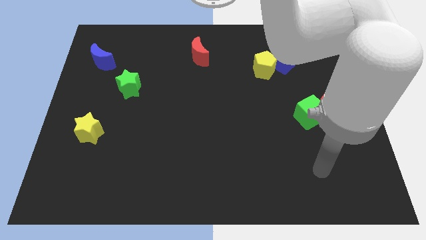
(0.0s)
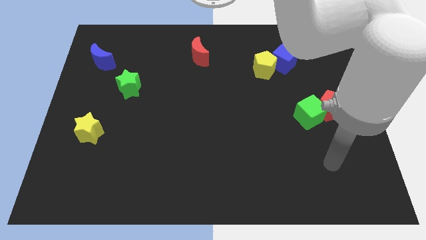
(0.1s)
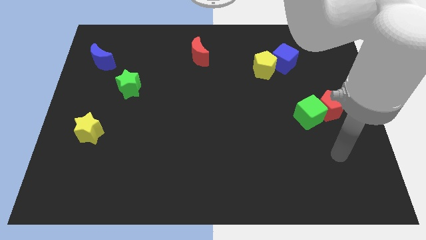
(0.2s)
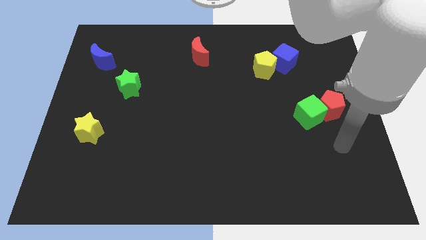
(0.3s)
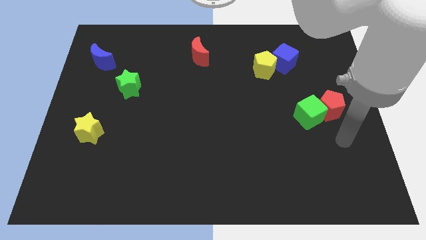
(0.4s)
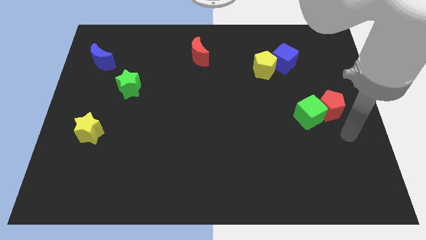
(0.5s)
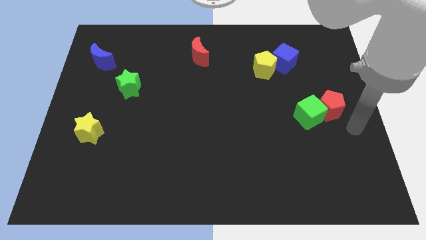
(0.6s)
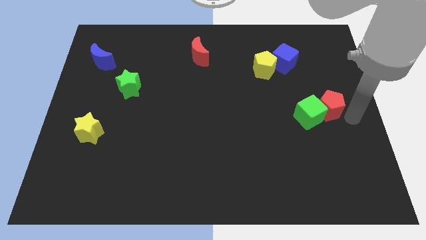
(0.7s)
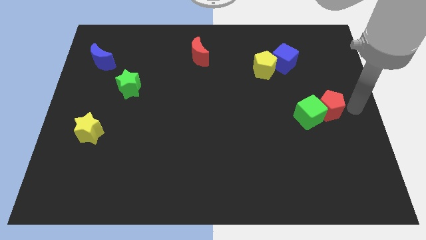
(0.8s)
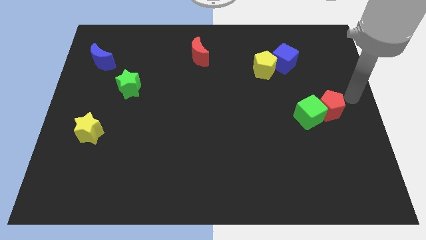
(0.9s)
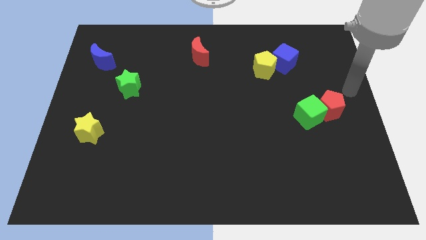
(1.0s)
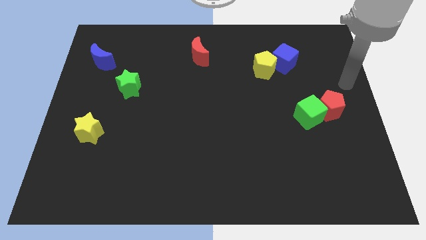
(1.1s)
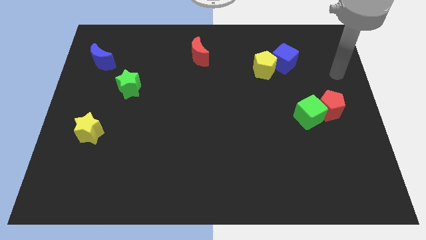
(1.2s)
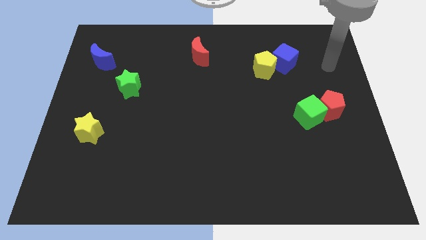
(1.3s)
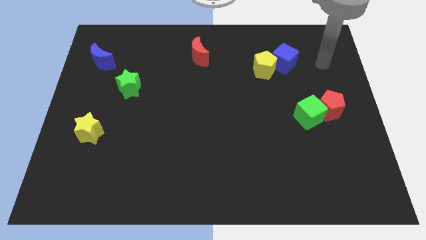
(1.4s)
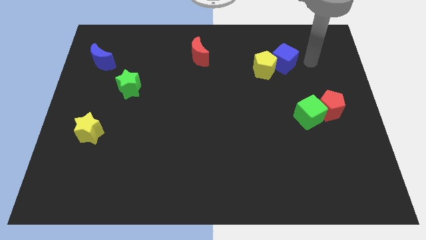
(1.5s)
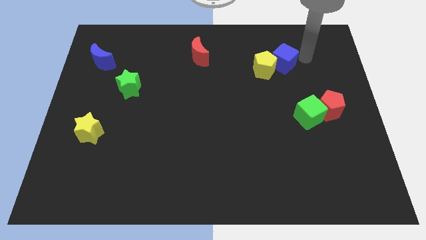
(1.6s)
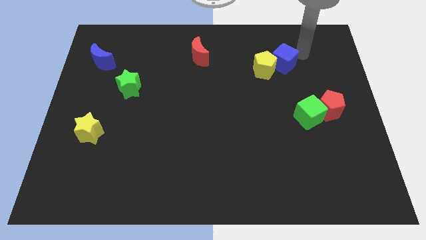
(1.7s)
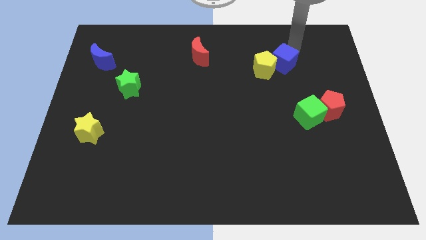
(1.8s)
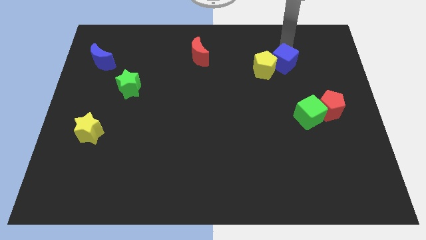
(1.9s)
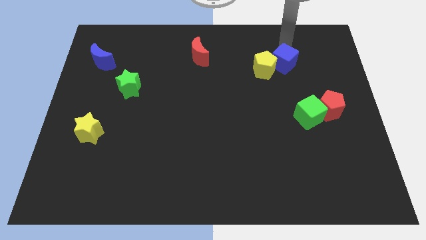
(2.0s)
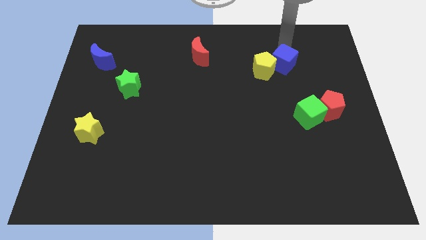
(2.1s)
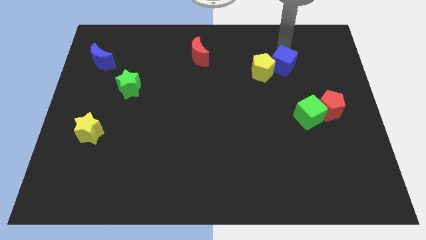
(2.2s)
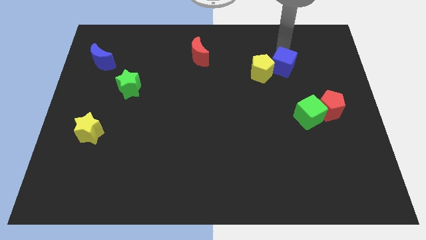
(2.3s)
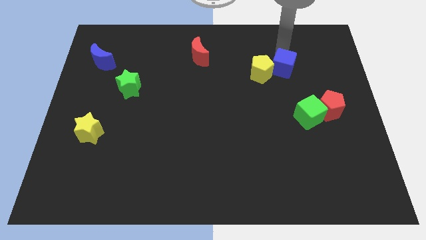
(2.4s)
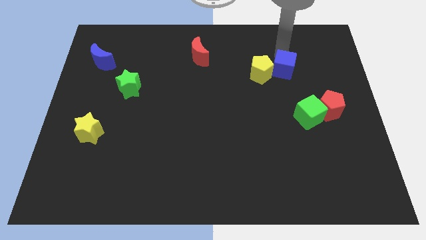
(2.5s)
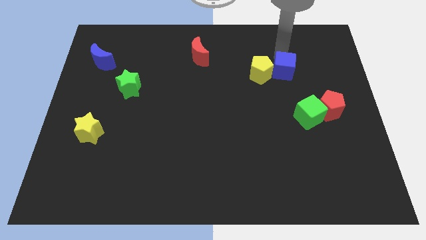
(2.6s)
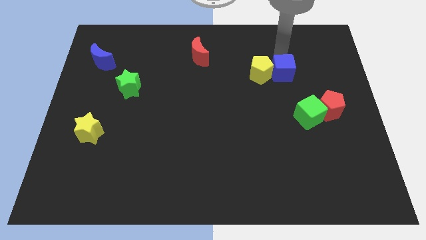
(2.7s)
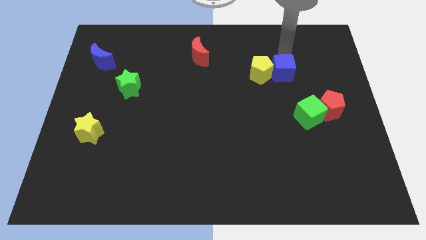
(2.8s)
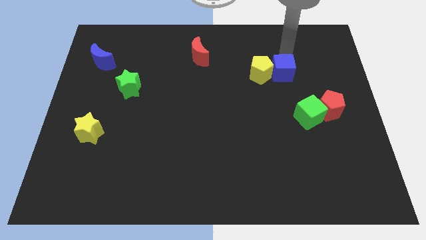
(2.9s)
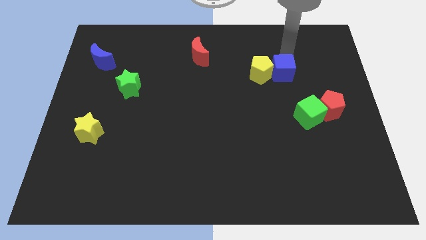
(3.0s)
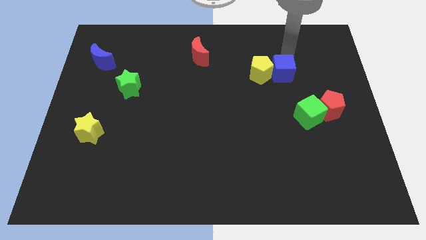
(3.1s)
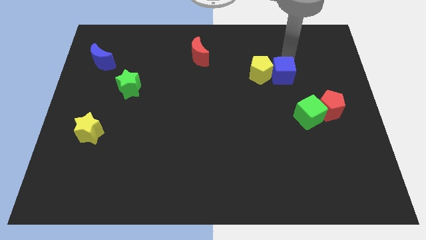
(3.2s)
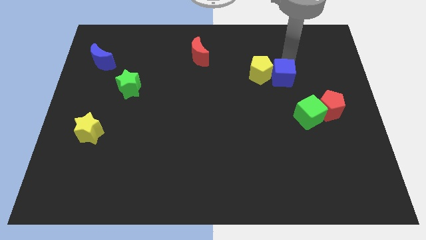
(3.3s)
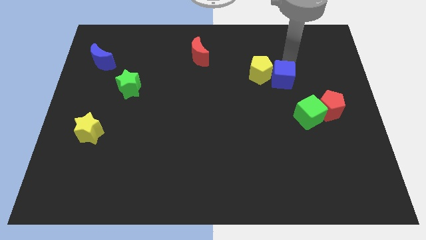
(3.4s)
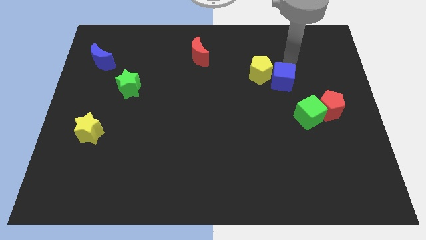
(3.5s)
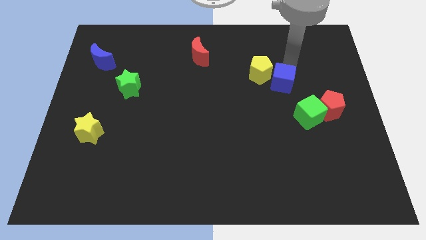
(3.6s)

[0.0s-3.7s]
push the blue cube a little down

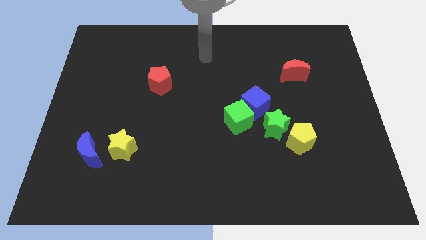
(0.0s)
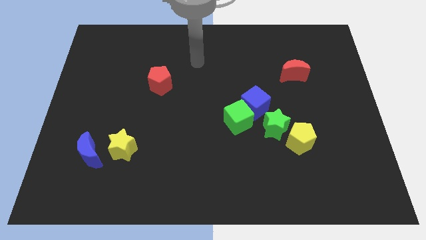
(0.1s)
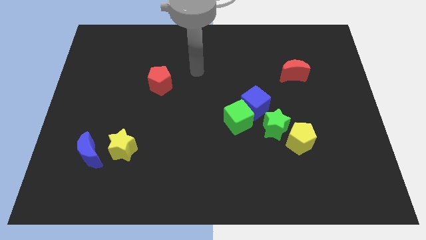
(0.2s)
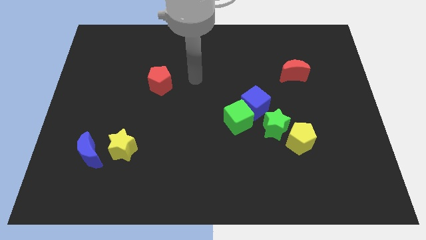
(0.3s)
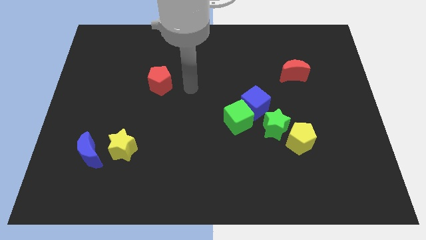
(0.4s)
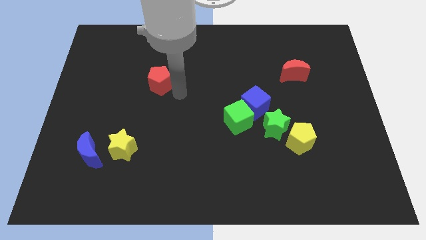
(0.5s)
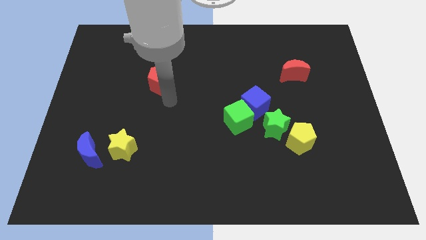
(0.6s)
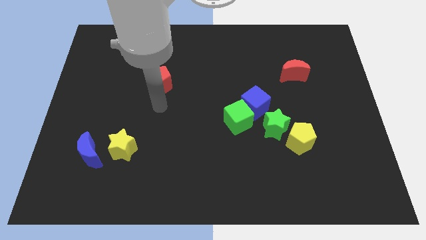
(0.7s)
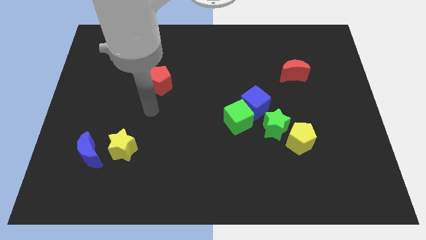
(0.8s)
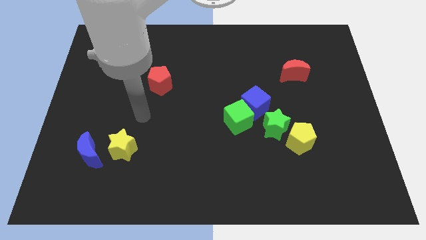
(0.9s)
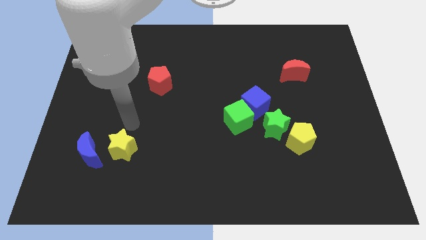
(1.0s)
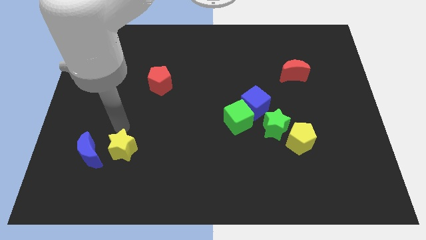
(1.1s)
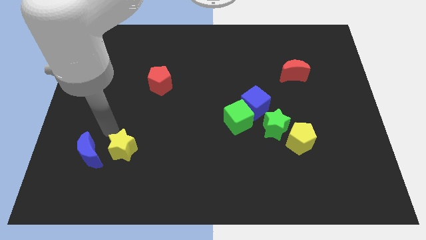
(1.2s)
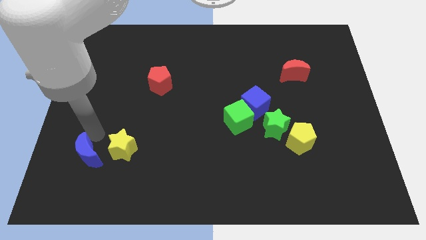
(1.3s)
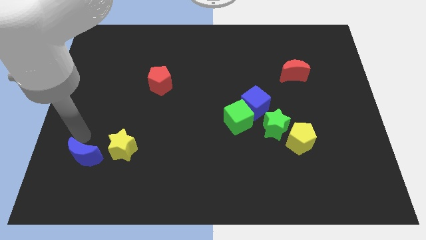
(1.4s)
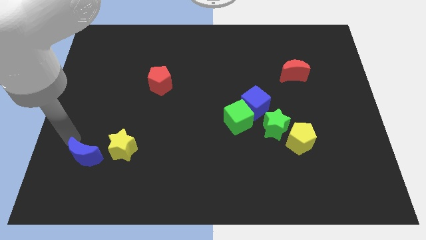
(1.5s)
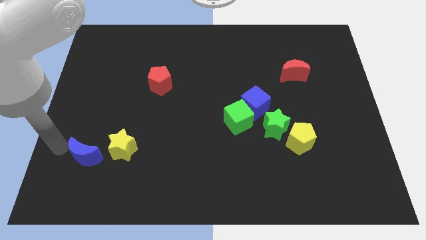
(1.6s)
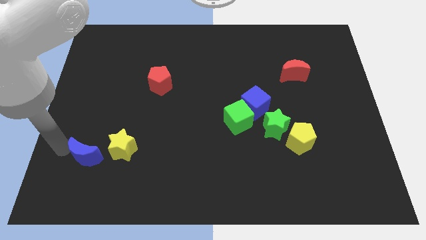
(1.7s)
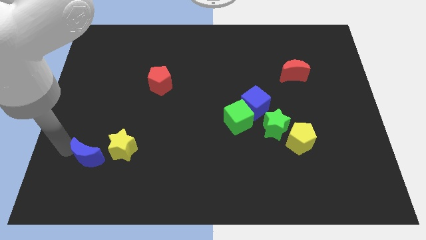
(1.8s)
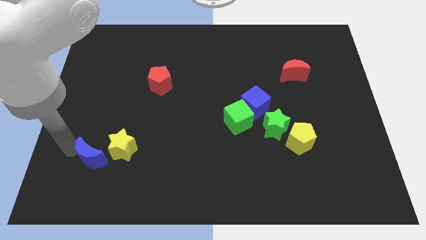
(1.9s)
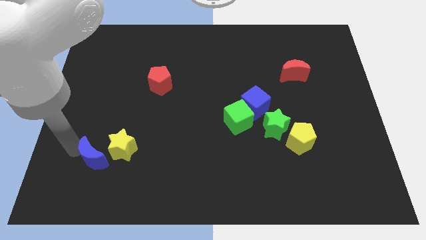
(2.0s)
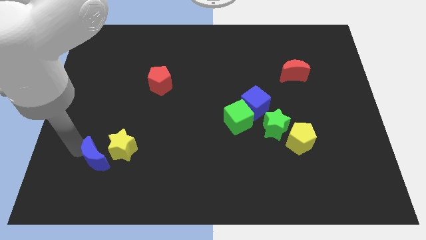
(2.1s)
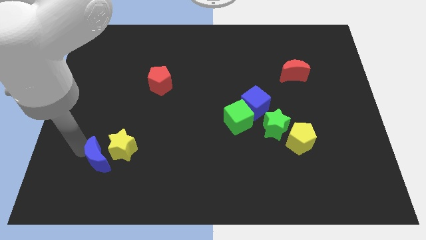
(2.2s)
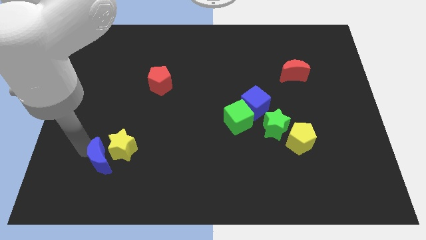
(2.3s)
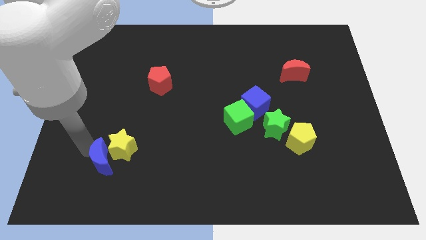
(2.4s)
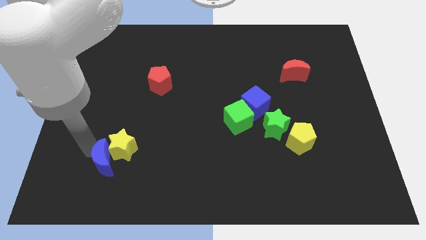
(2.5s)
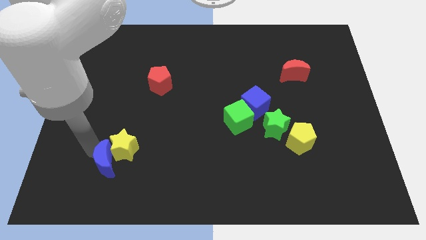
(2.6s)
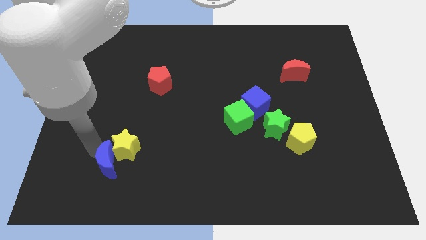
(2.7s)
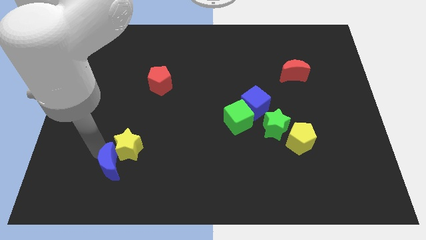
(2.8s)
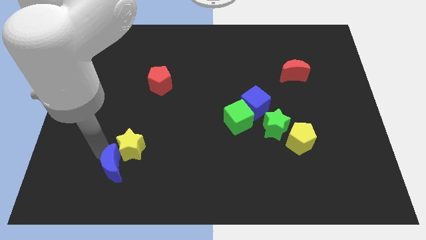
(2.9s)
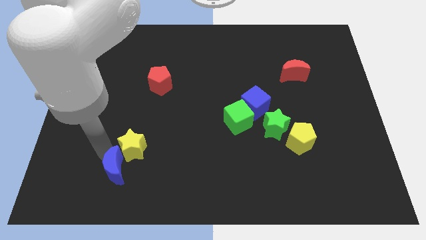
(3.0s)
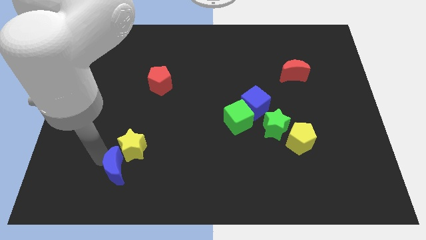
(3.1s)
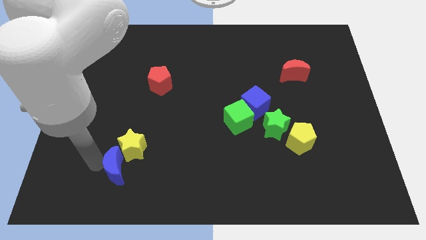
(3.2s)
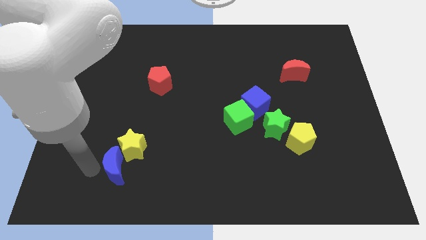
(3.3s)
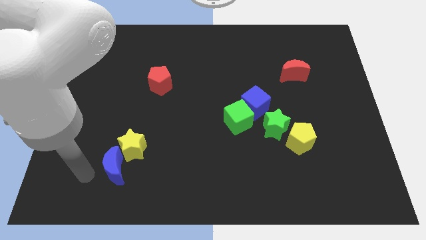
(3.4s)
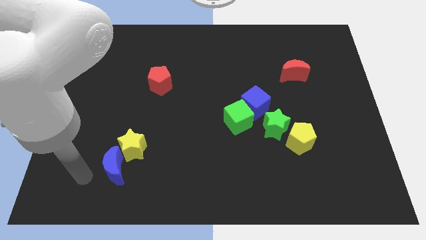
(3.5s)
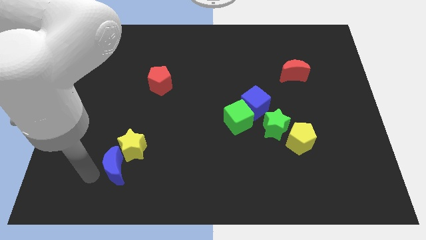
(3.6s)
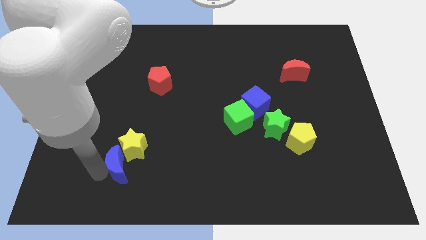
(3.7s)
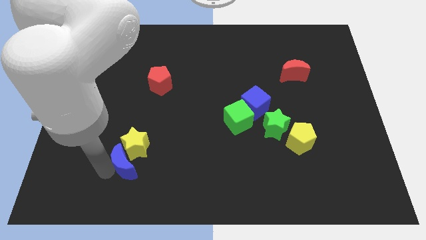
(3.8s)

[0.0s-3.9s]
push the blue moon right somewhat

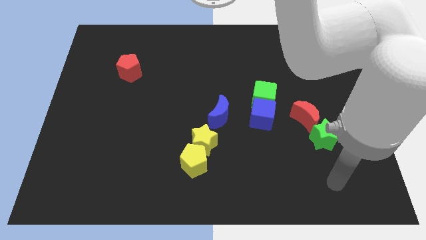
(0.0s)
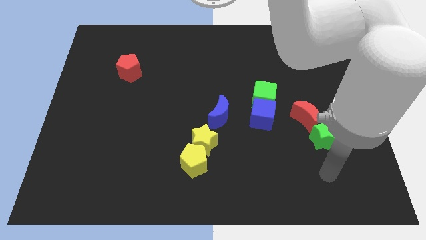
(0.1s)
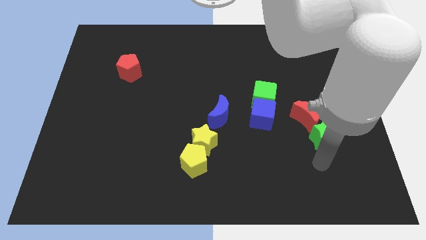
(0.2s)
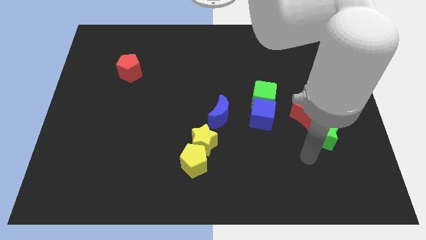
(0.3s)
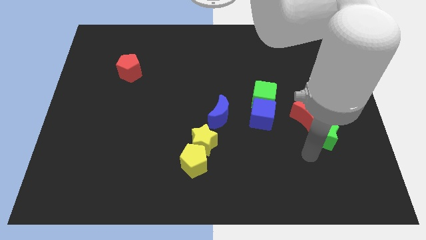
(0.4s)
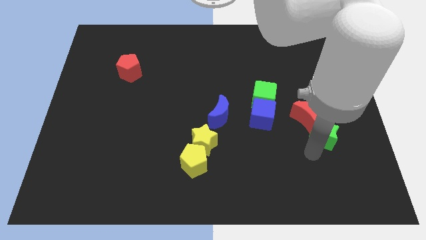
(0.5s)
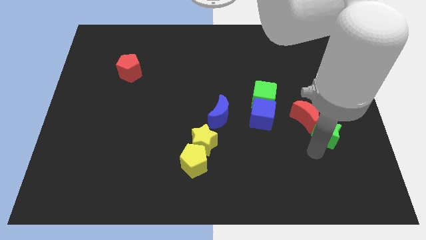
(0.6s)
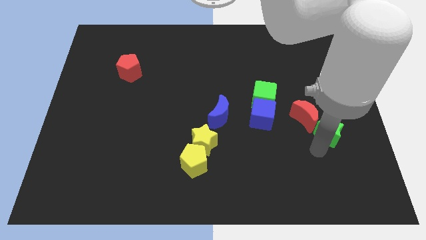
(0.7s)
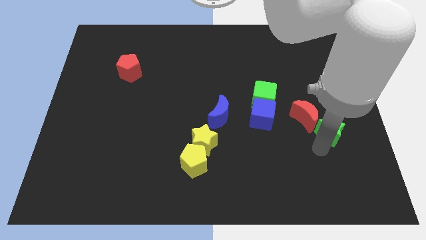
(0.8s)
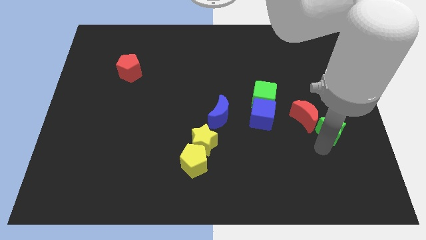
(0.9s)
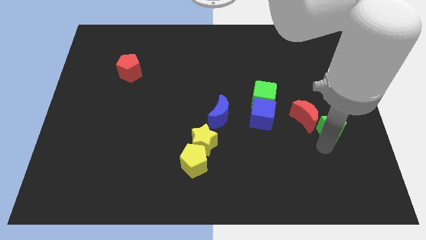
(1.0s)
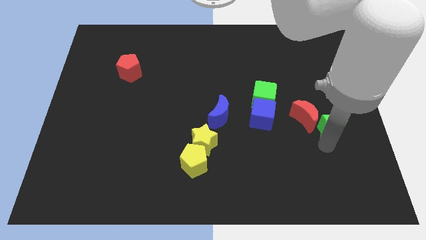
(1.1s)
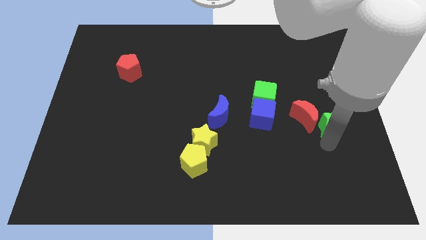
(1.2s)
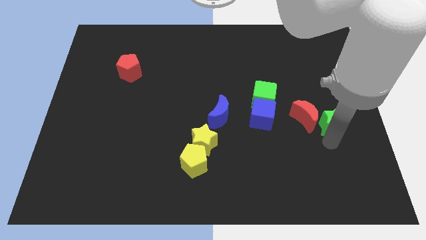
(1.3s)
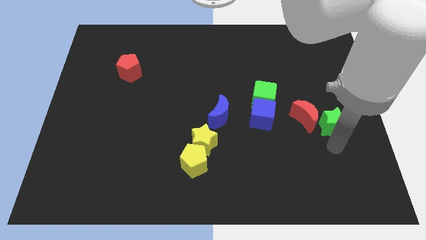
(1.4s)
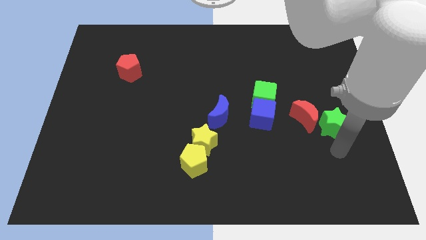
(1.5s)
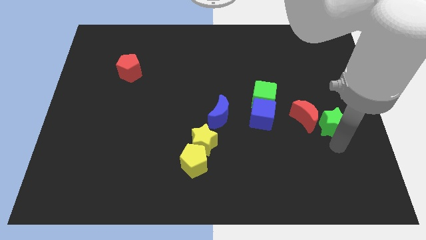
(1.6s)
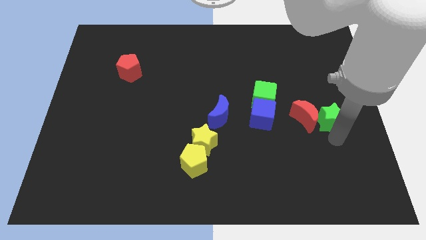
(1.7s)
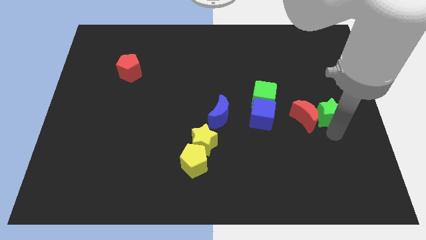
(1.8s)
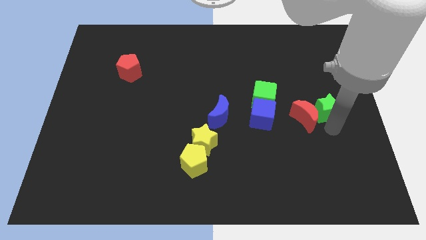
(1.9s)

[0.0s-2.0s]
slide the green star upwards slightly
